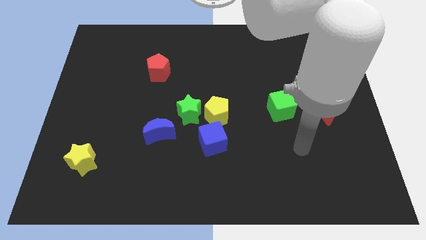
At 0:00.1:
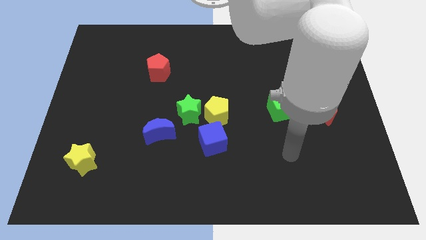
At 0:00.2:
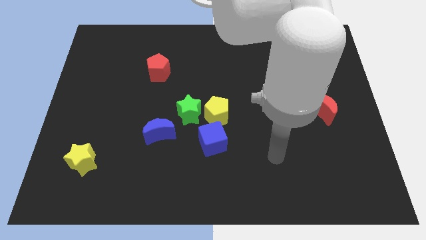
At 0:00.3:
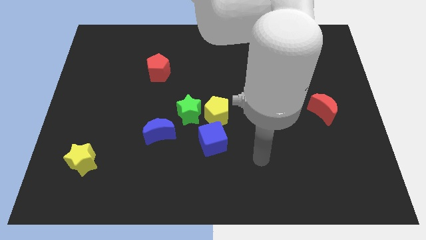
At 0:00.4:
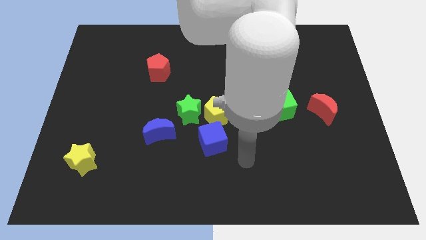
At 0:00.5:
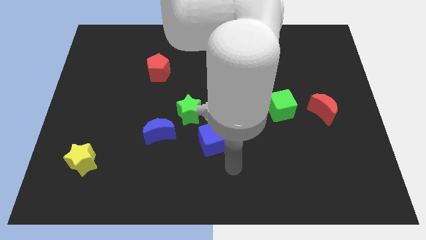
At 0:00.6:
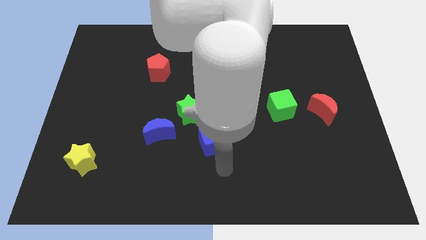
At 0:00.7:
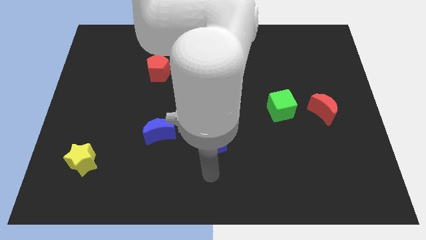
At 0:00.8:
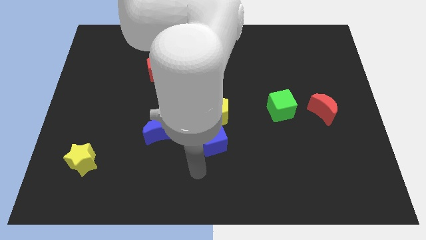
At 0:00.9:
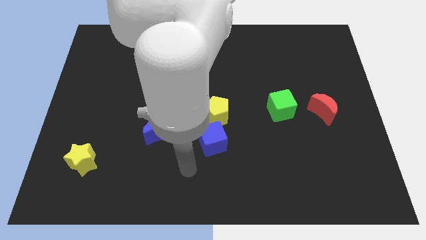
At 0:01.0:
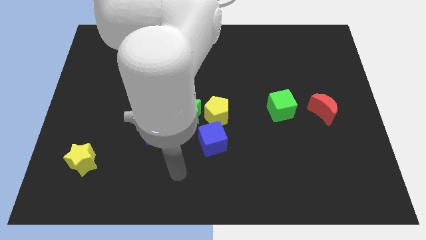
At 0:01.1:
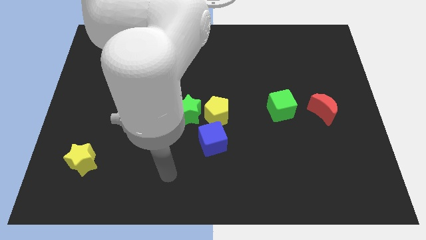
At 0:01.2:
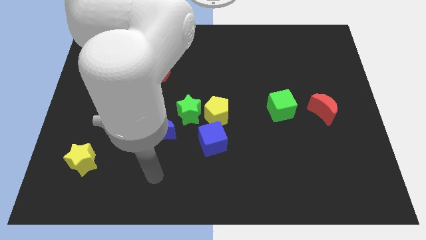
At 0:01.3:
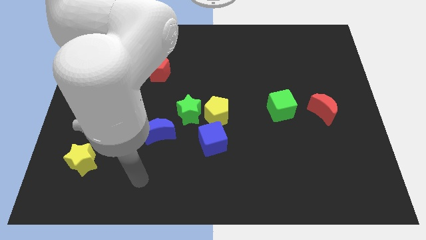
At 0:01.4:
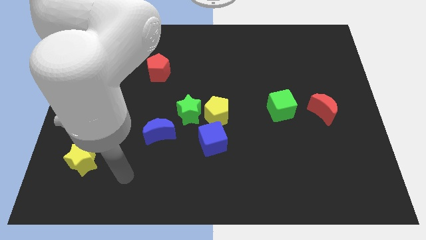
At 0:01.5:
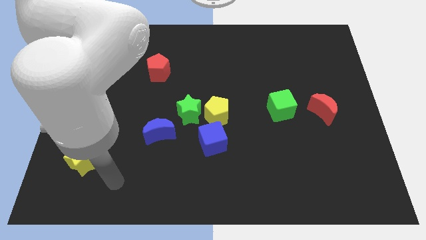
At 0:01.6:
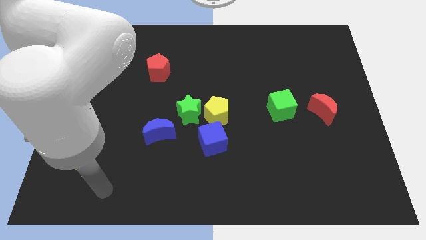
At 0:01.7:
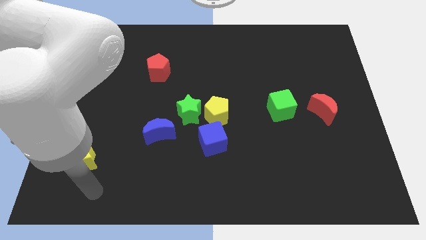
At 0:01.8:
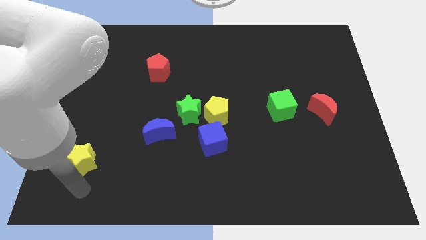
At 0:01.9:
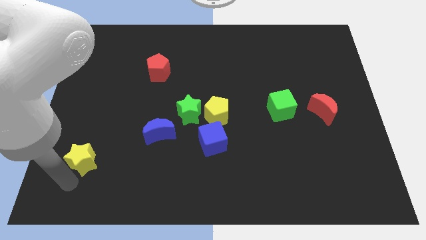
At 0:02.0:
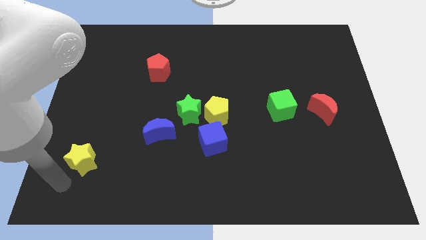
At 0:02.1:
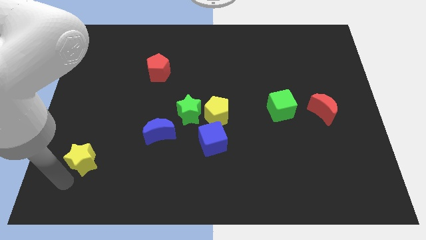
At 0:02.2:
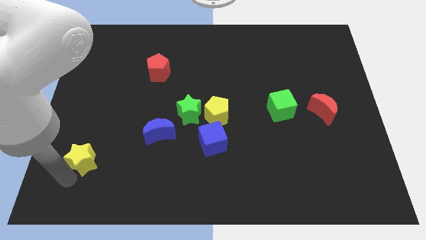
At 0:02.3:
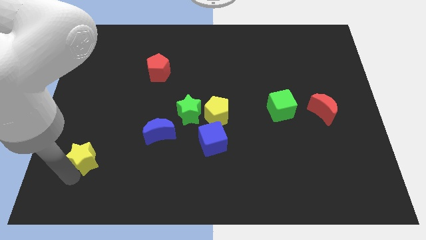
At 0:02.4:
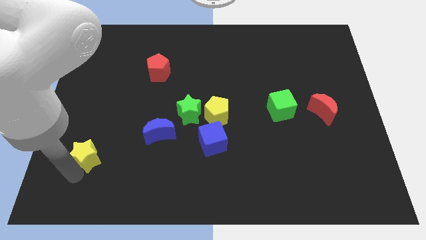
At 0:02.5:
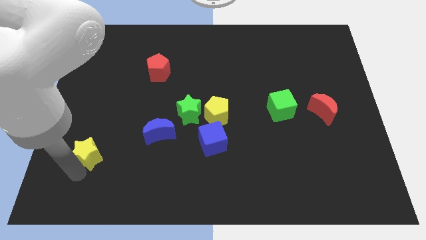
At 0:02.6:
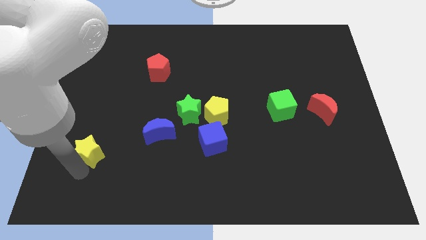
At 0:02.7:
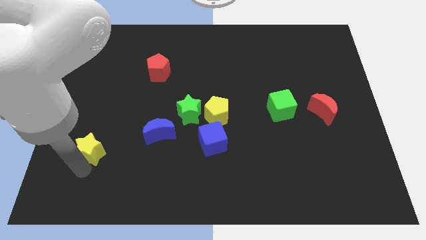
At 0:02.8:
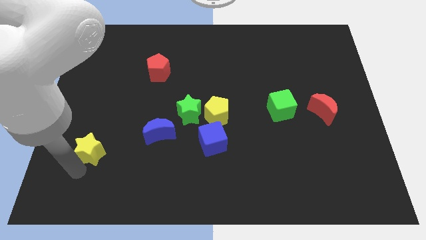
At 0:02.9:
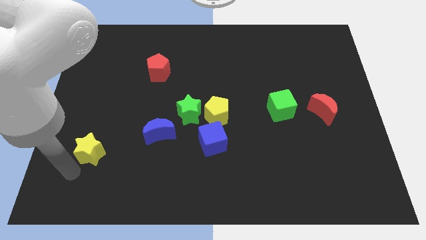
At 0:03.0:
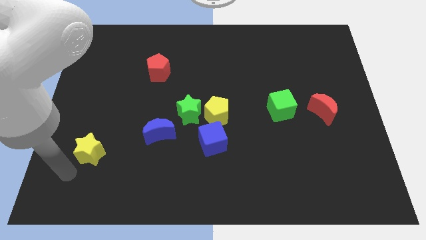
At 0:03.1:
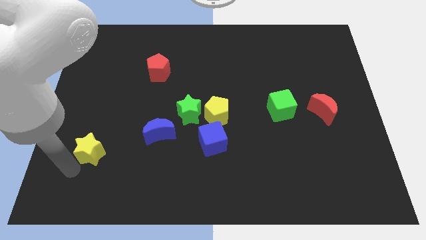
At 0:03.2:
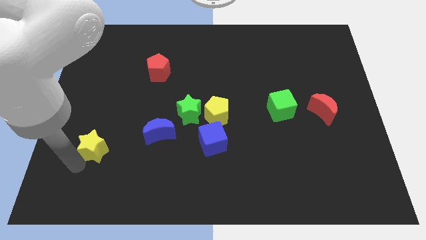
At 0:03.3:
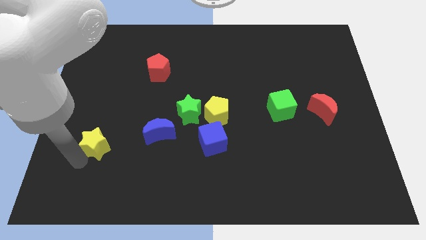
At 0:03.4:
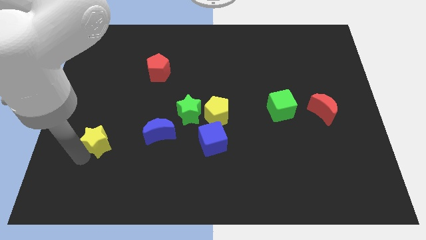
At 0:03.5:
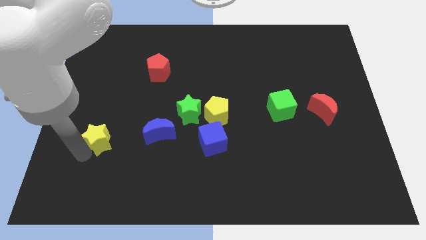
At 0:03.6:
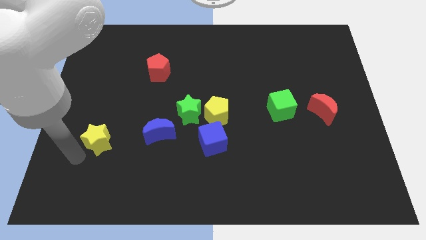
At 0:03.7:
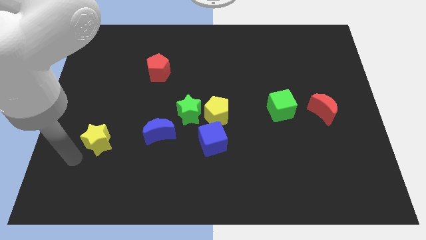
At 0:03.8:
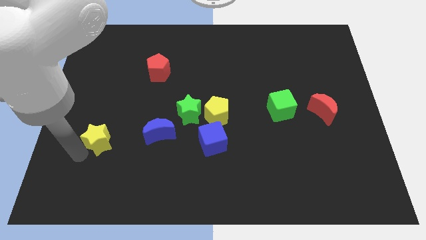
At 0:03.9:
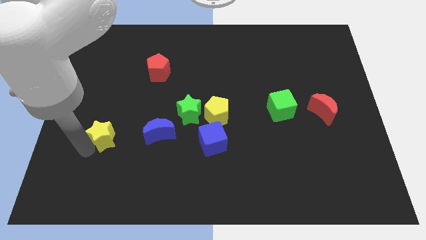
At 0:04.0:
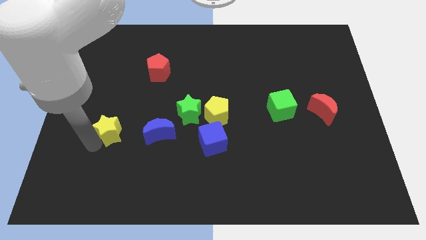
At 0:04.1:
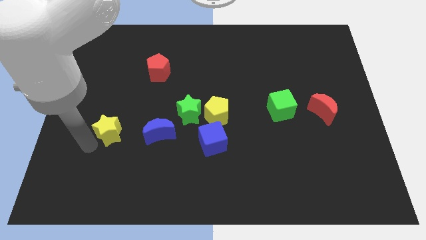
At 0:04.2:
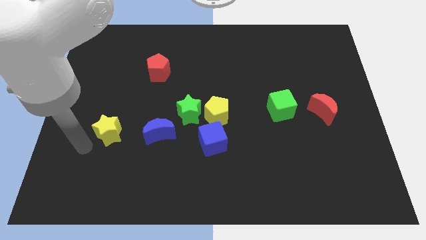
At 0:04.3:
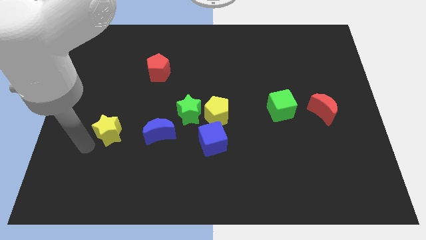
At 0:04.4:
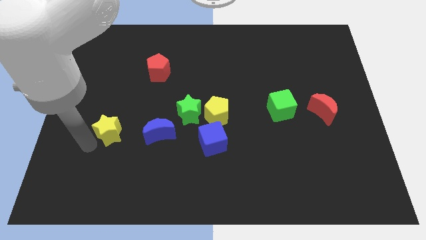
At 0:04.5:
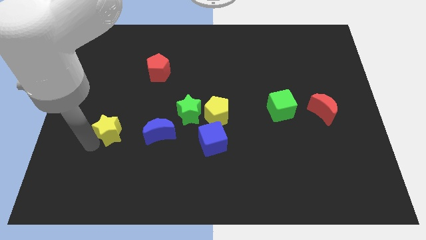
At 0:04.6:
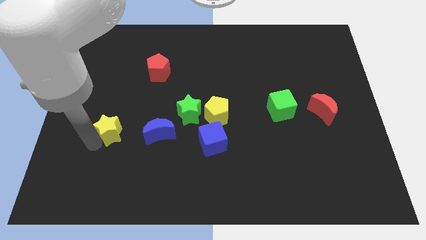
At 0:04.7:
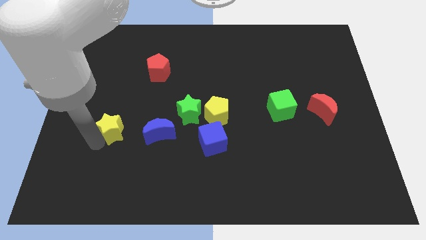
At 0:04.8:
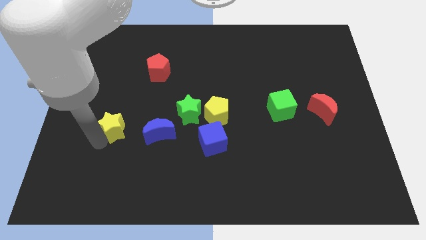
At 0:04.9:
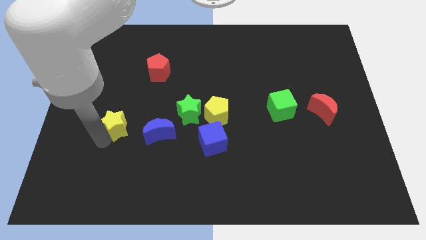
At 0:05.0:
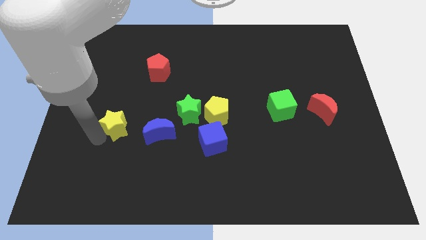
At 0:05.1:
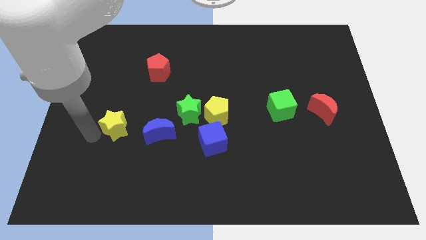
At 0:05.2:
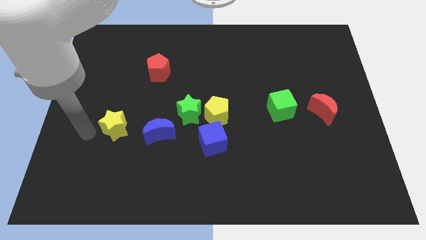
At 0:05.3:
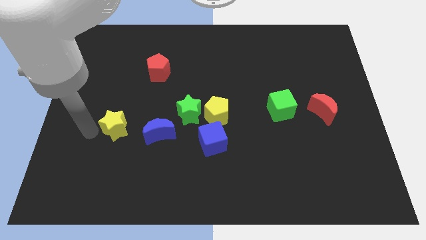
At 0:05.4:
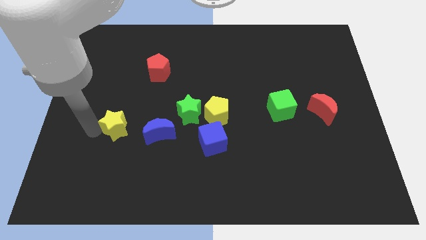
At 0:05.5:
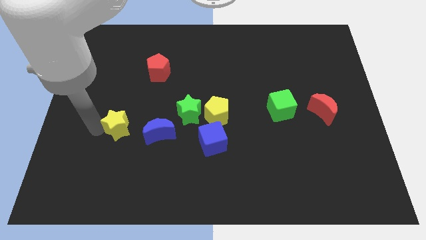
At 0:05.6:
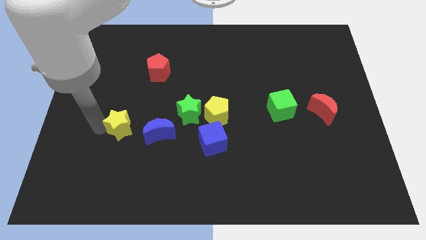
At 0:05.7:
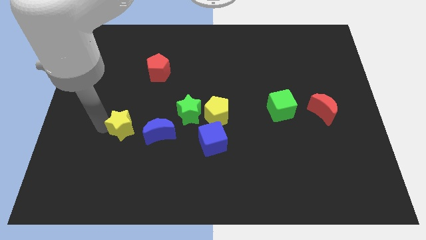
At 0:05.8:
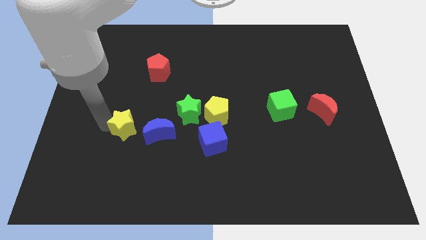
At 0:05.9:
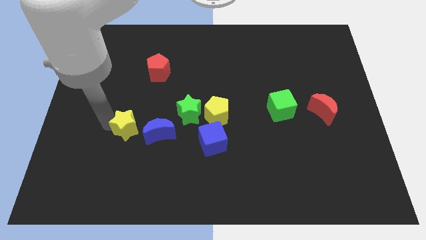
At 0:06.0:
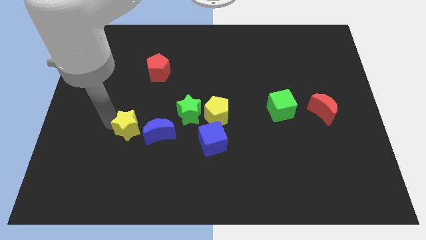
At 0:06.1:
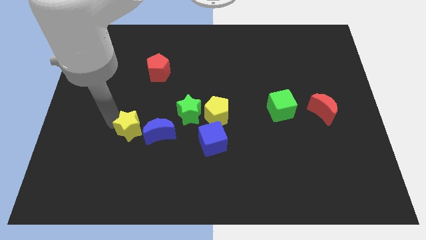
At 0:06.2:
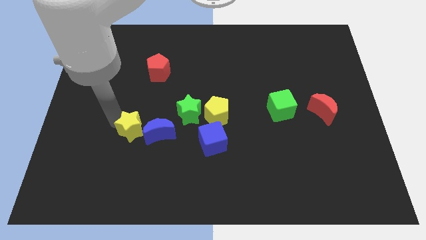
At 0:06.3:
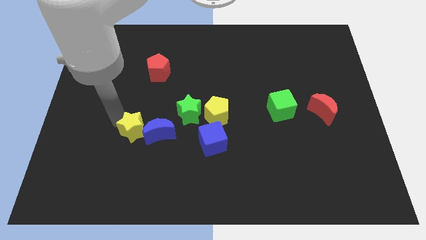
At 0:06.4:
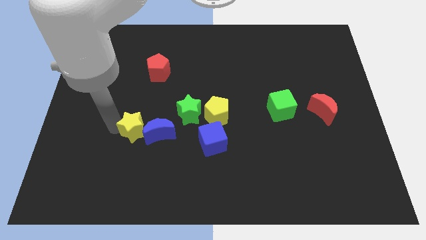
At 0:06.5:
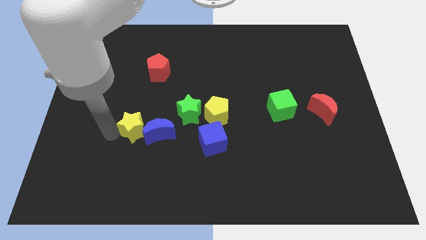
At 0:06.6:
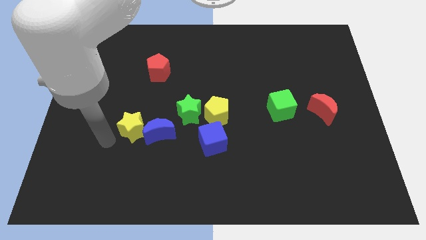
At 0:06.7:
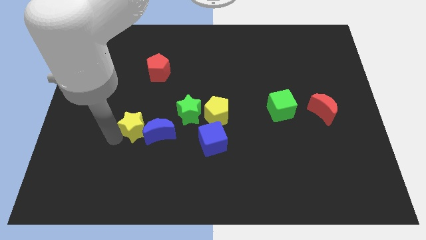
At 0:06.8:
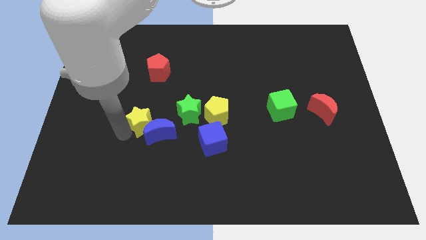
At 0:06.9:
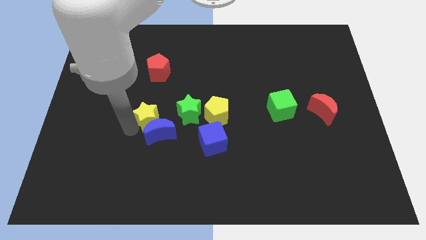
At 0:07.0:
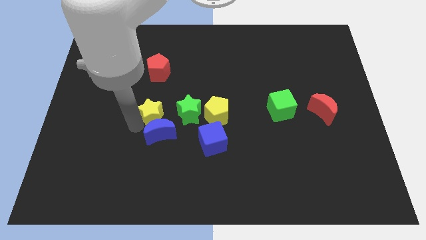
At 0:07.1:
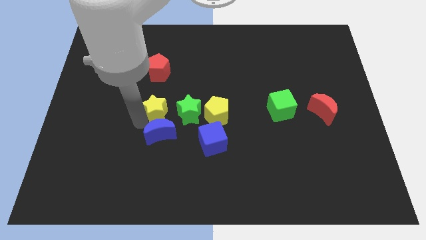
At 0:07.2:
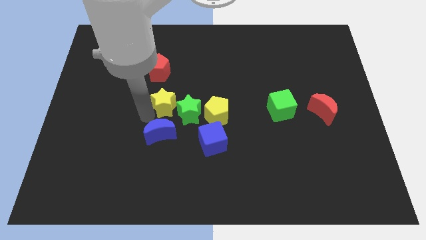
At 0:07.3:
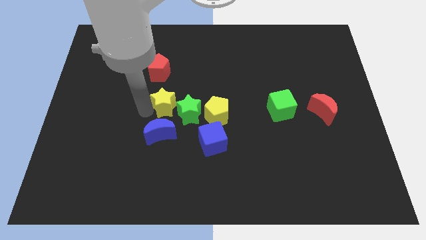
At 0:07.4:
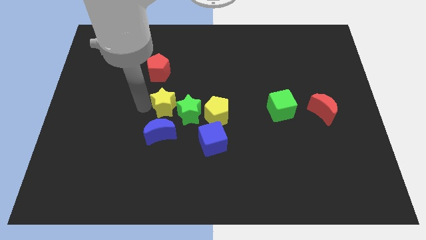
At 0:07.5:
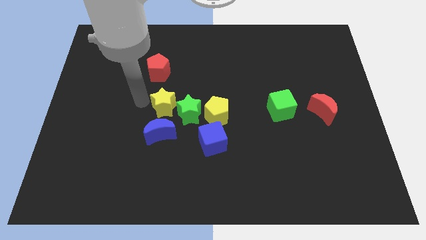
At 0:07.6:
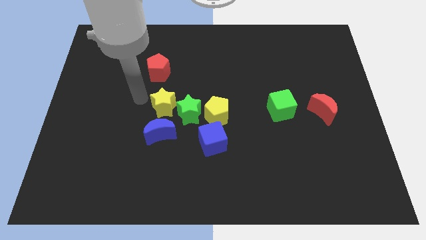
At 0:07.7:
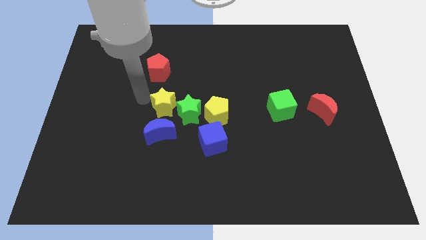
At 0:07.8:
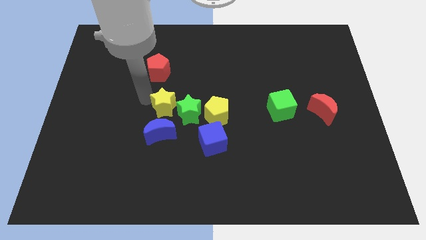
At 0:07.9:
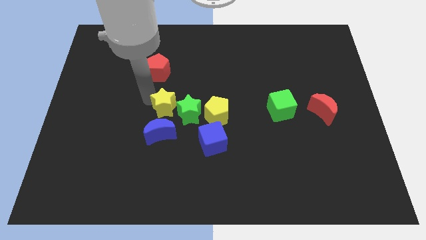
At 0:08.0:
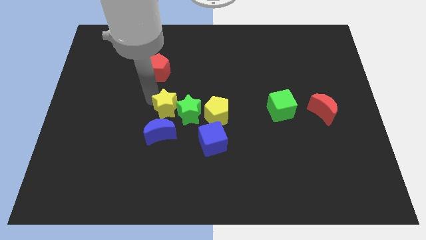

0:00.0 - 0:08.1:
slide the yellow star towards the green star
